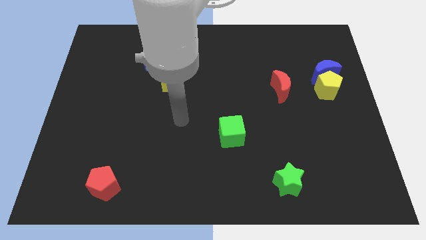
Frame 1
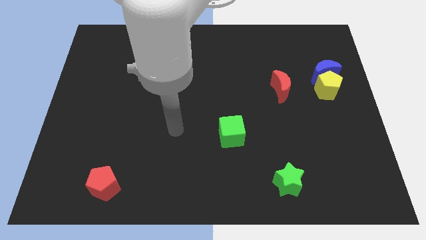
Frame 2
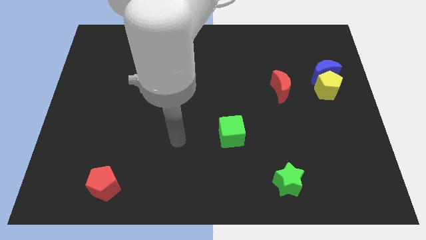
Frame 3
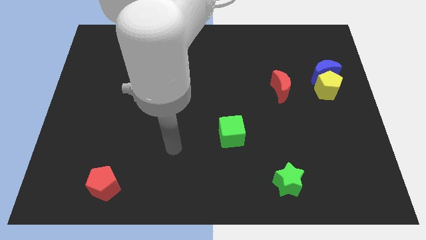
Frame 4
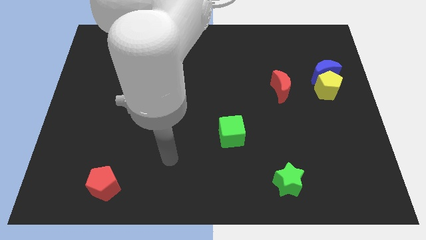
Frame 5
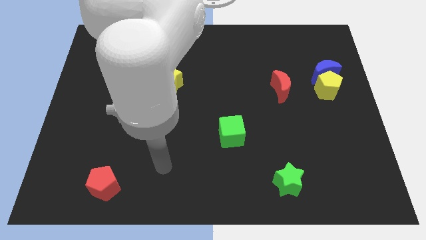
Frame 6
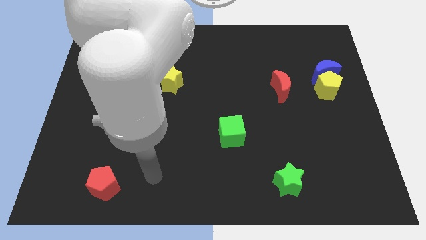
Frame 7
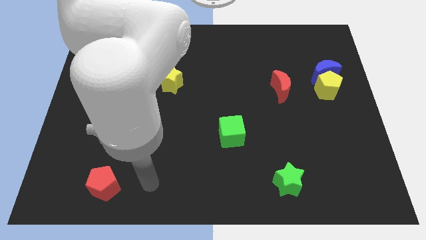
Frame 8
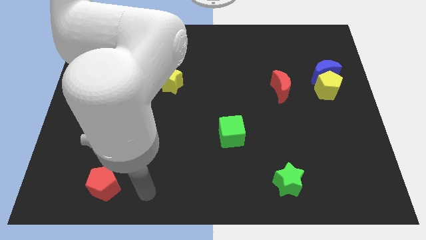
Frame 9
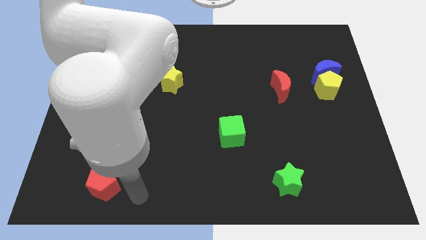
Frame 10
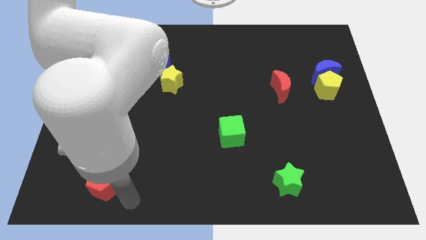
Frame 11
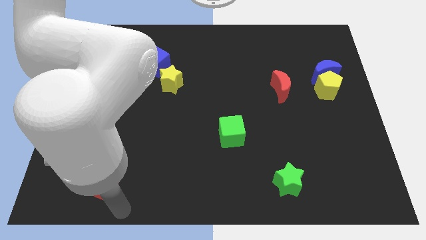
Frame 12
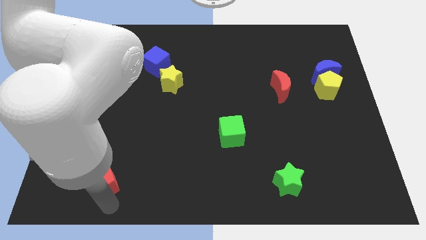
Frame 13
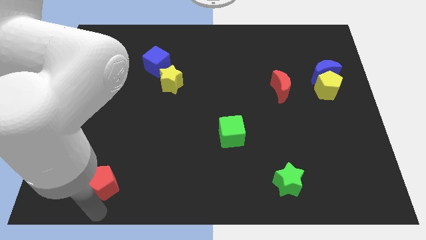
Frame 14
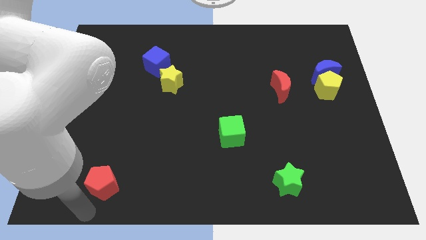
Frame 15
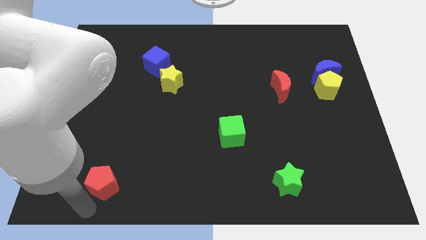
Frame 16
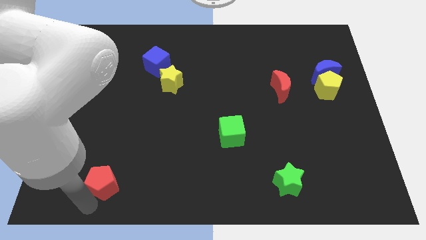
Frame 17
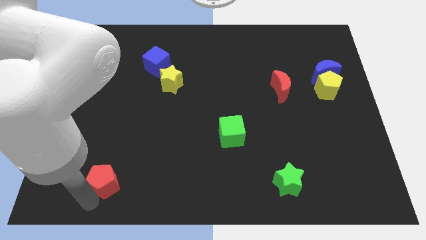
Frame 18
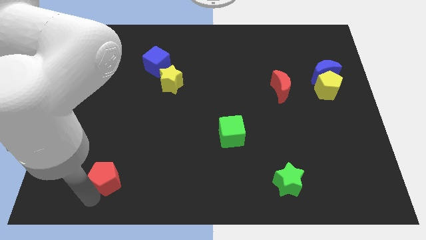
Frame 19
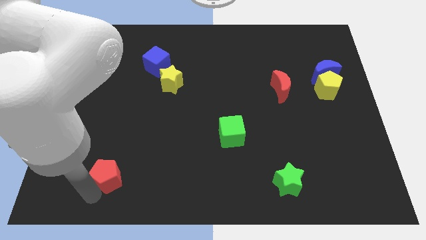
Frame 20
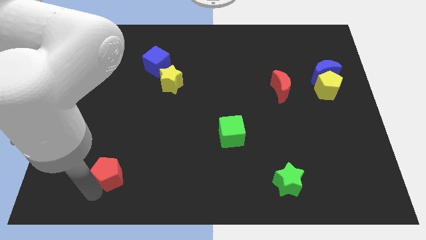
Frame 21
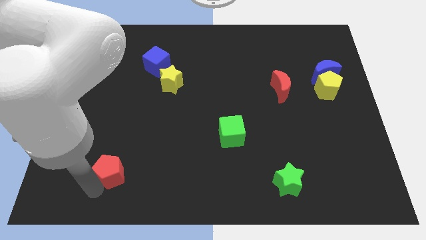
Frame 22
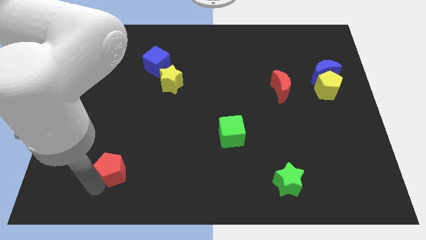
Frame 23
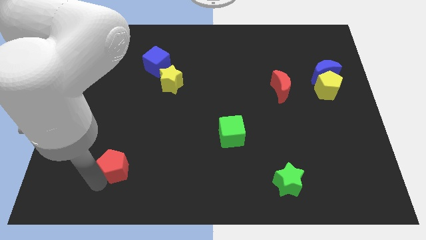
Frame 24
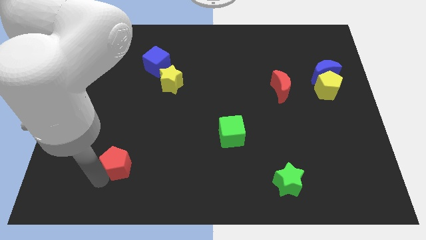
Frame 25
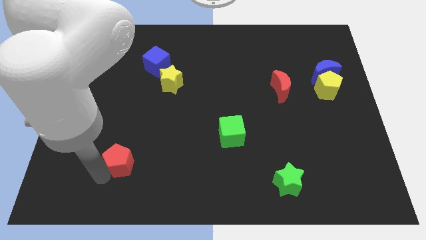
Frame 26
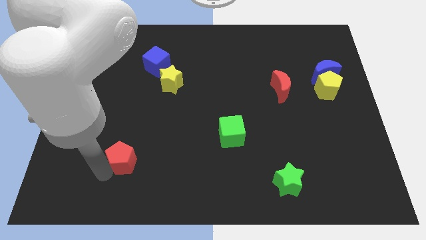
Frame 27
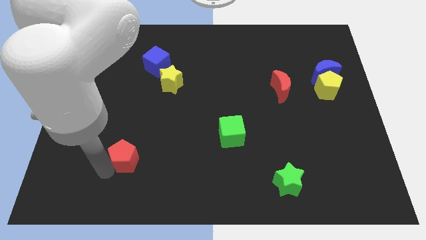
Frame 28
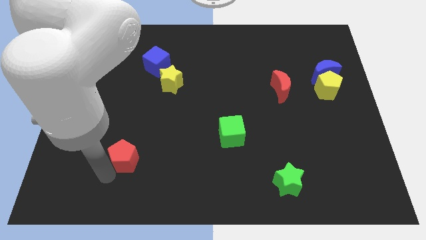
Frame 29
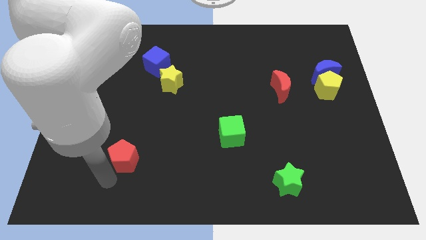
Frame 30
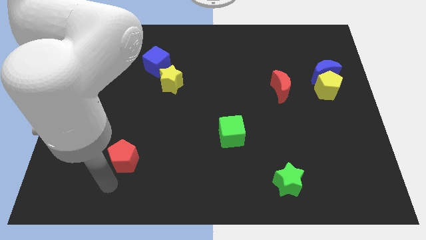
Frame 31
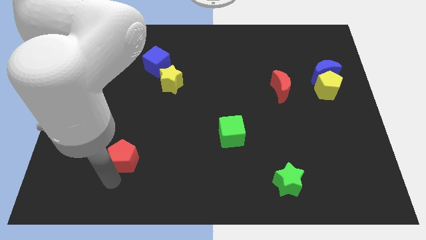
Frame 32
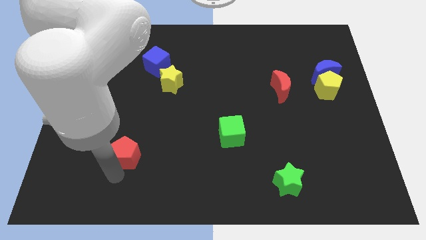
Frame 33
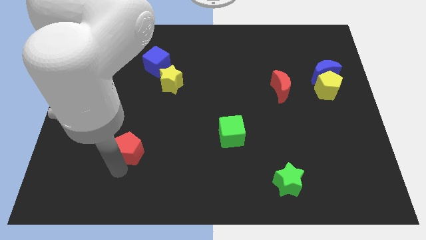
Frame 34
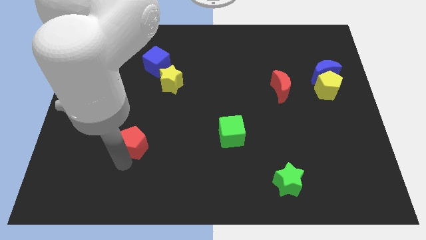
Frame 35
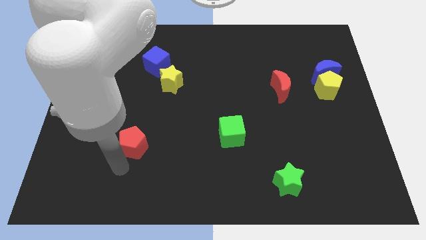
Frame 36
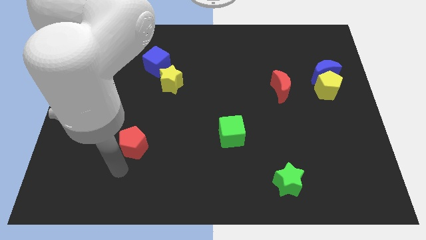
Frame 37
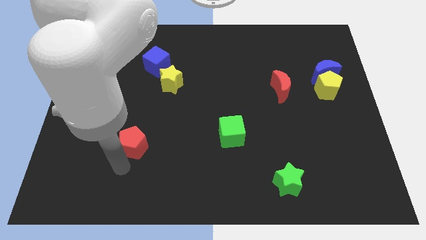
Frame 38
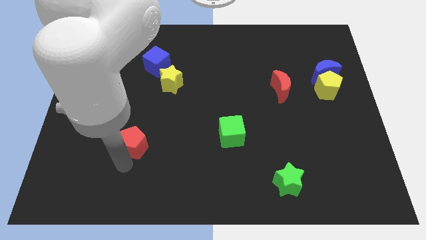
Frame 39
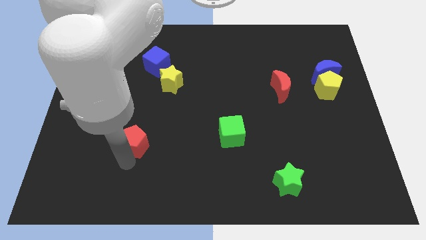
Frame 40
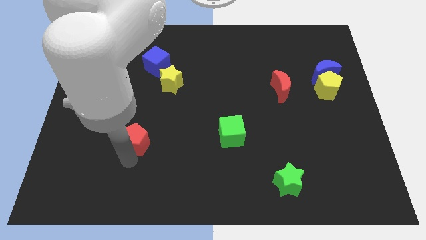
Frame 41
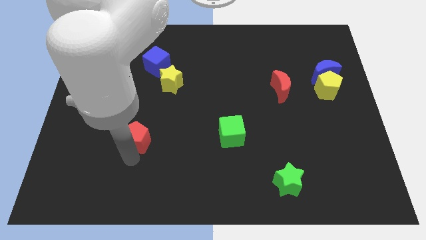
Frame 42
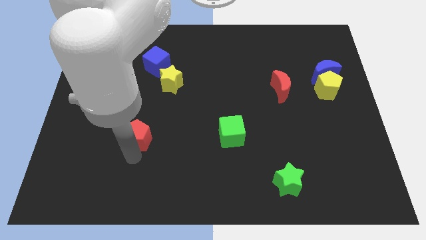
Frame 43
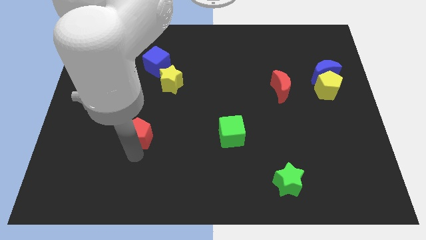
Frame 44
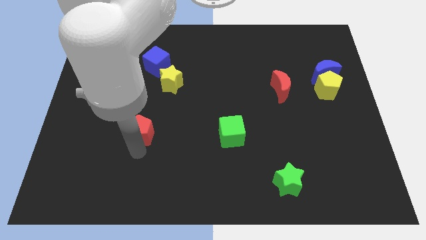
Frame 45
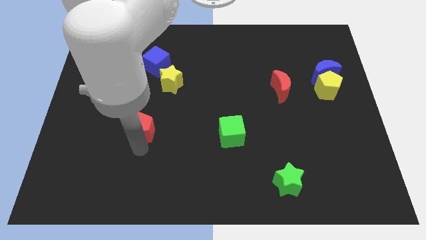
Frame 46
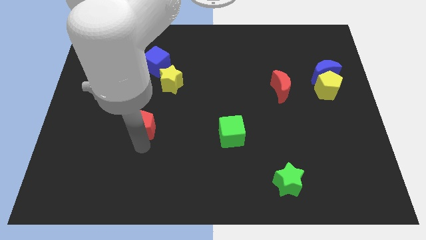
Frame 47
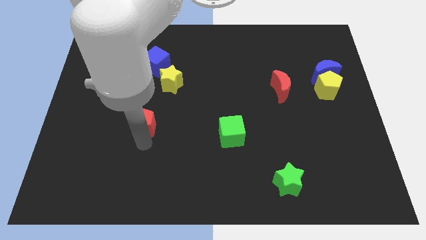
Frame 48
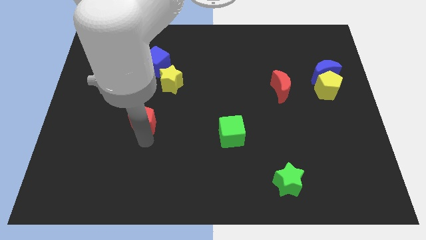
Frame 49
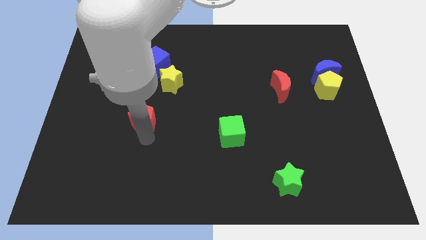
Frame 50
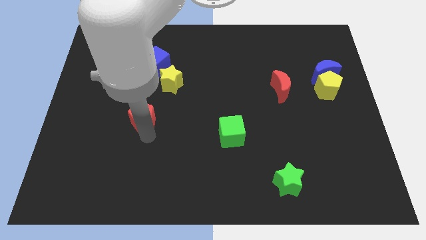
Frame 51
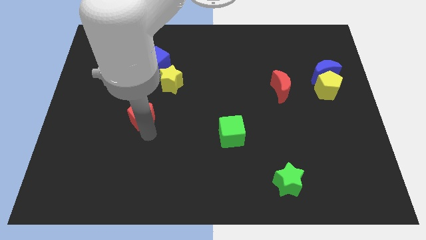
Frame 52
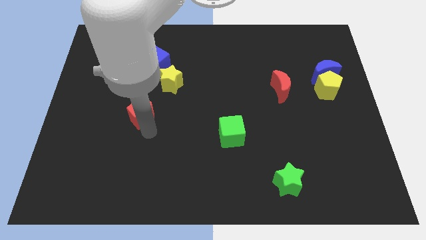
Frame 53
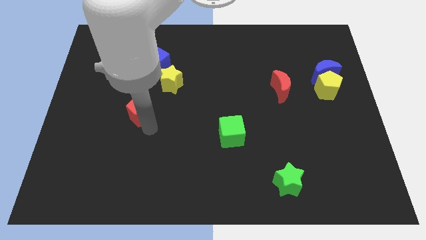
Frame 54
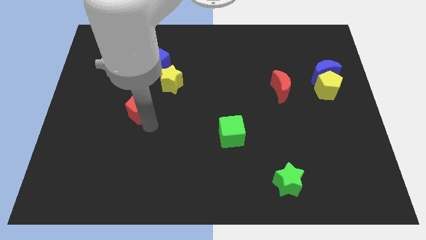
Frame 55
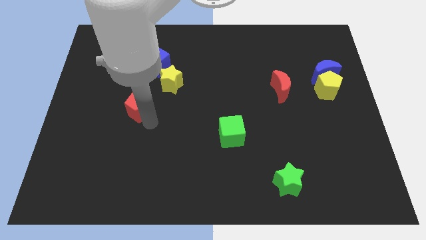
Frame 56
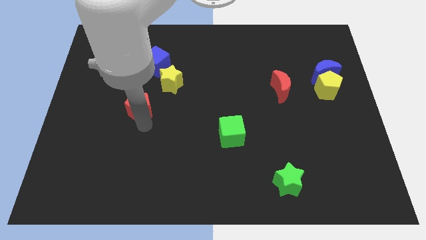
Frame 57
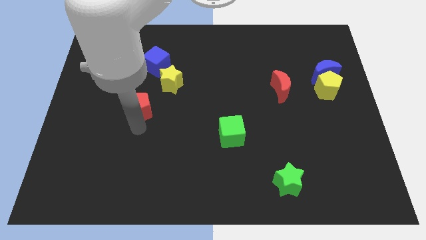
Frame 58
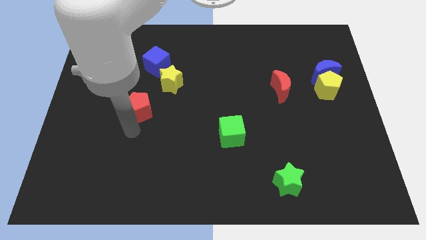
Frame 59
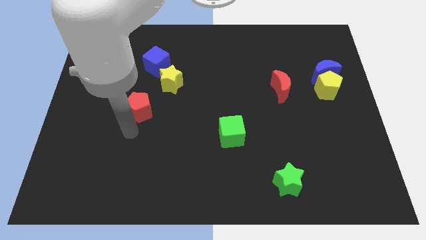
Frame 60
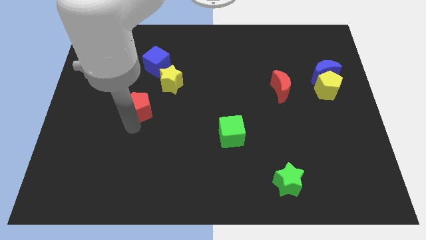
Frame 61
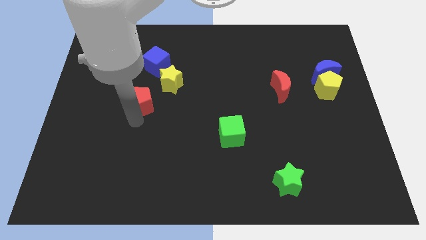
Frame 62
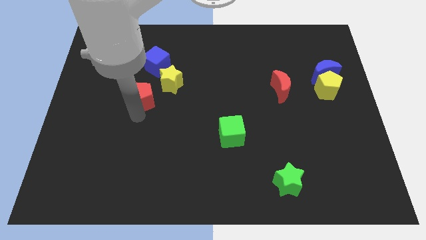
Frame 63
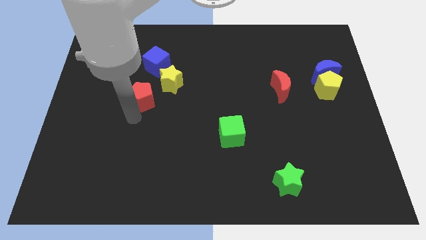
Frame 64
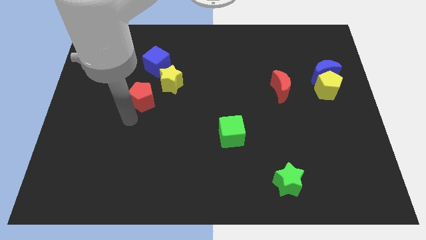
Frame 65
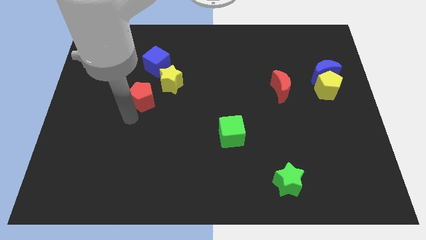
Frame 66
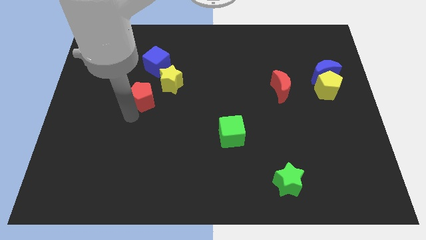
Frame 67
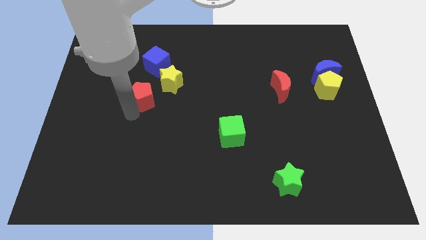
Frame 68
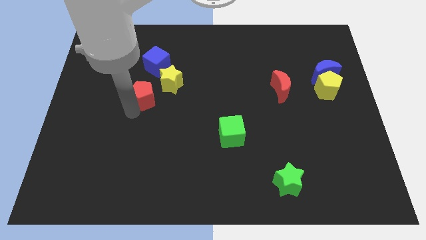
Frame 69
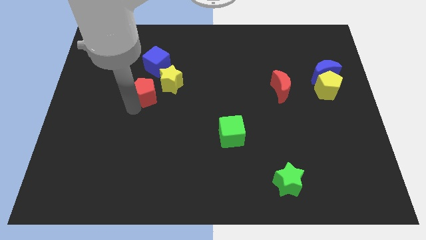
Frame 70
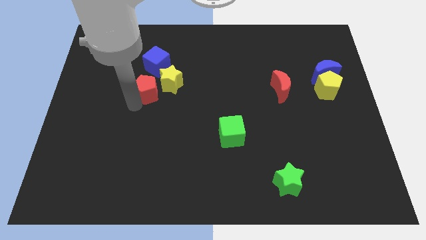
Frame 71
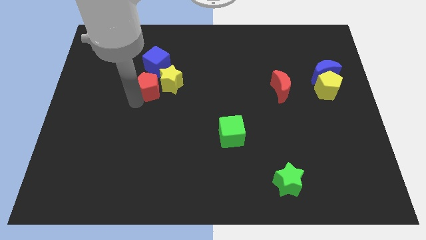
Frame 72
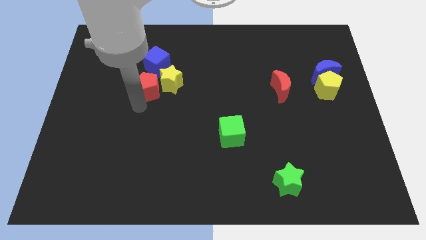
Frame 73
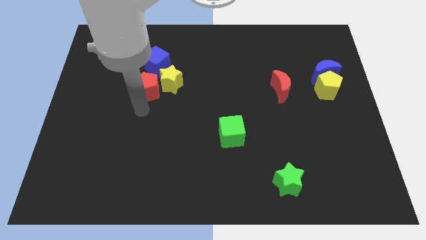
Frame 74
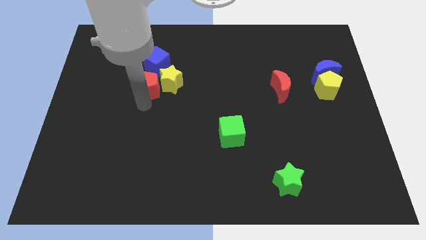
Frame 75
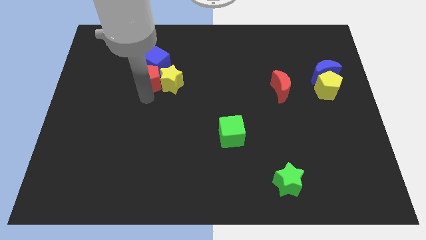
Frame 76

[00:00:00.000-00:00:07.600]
push the red pentagon close to the blue cube
